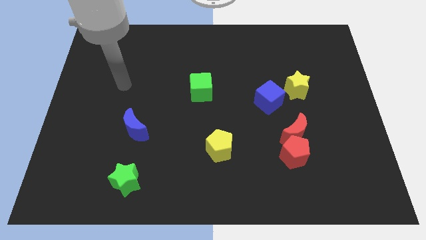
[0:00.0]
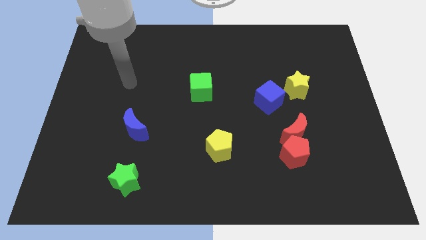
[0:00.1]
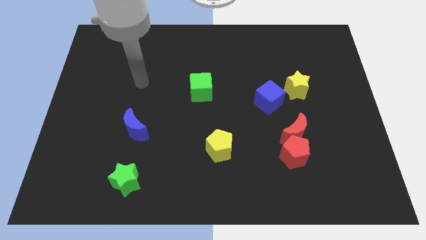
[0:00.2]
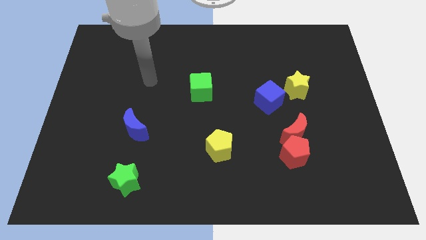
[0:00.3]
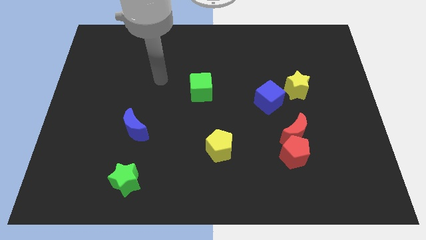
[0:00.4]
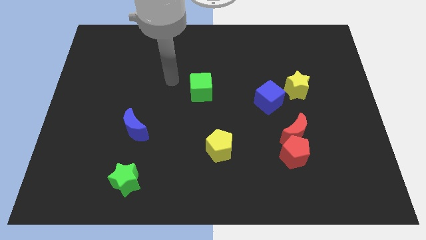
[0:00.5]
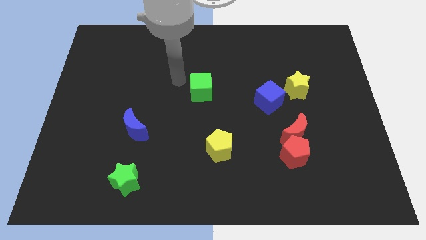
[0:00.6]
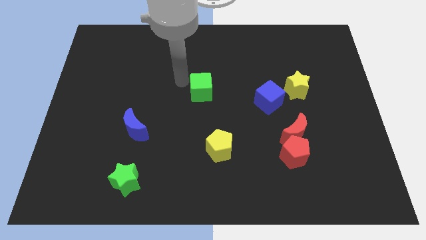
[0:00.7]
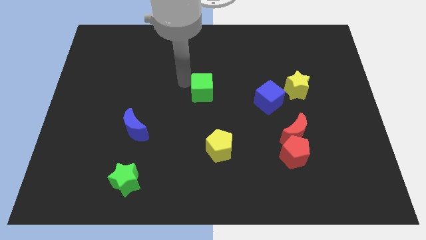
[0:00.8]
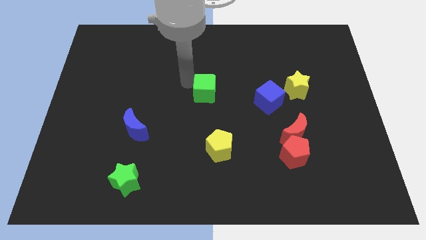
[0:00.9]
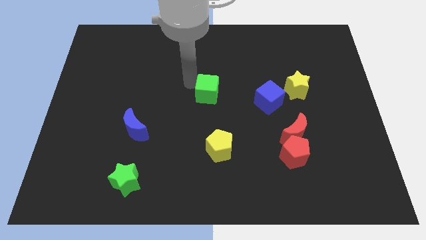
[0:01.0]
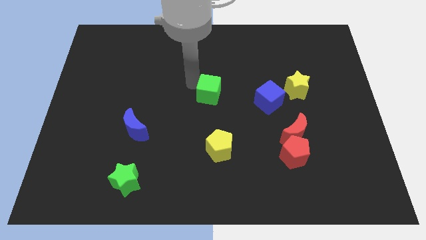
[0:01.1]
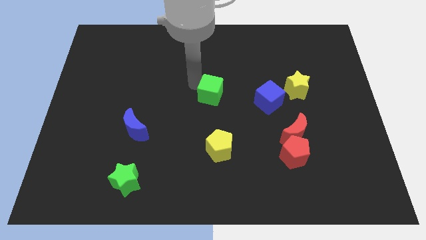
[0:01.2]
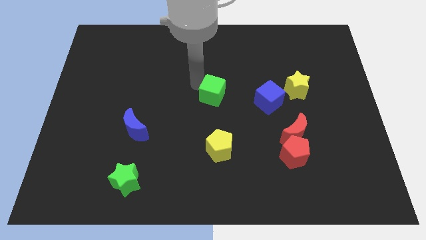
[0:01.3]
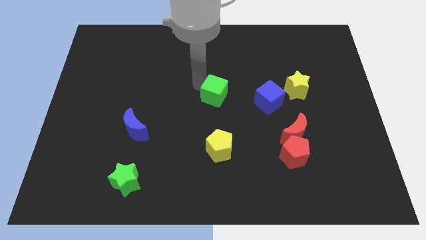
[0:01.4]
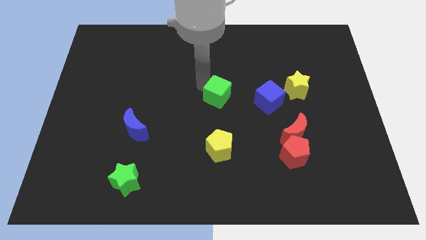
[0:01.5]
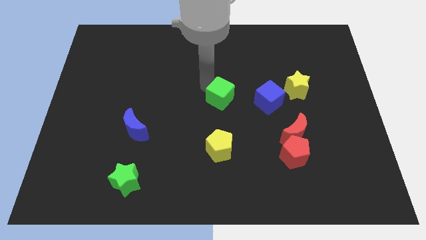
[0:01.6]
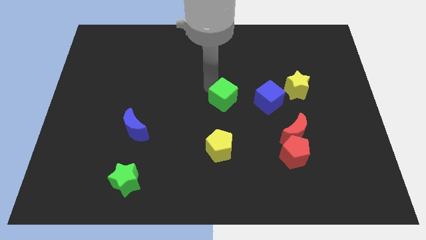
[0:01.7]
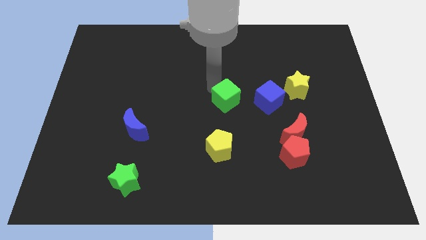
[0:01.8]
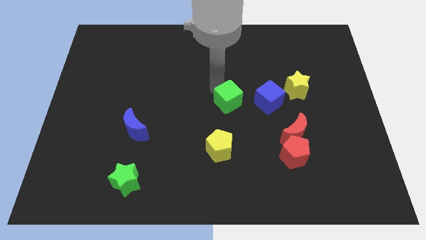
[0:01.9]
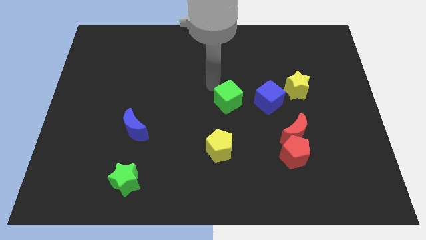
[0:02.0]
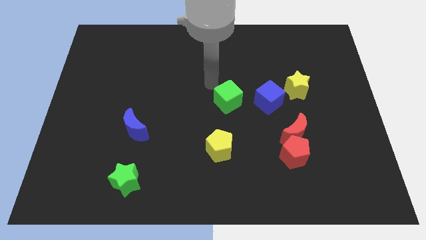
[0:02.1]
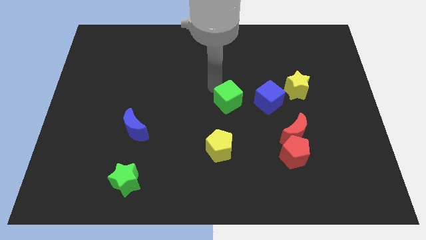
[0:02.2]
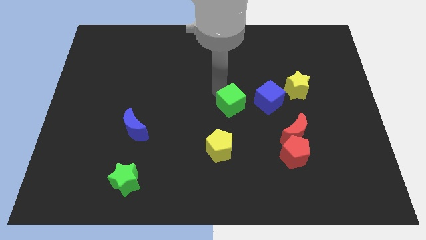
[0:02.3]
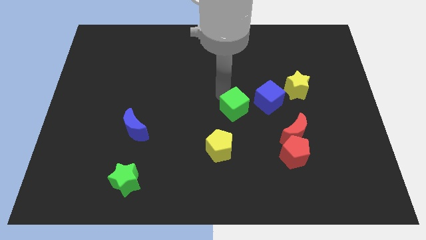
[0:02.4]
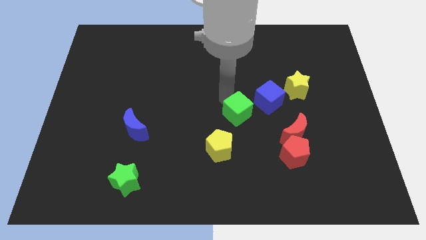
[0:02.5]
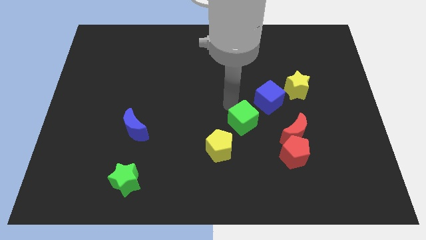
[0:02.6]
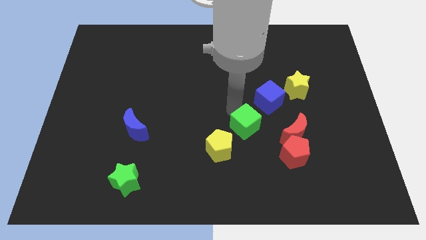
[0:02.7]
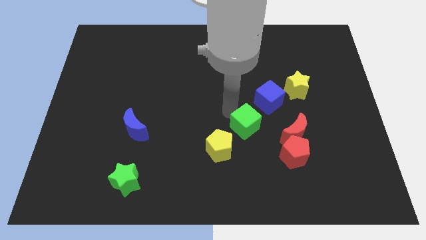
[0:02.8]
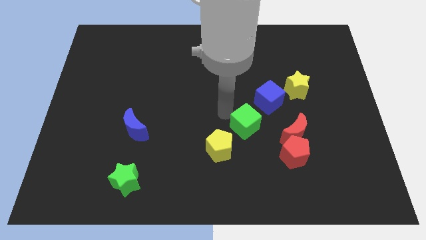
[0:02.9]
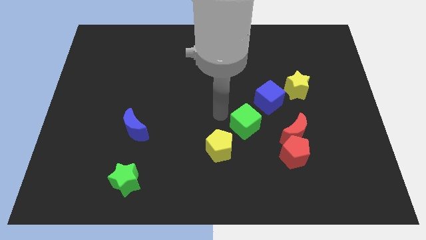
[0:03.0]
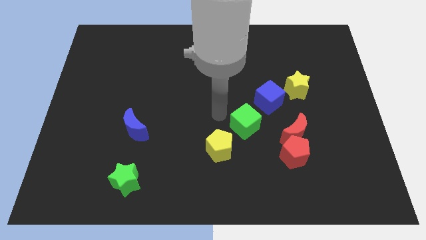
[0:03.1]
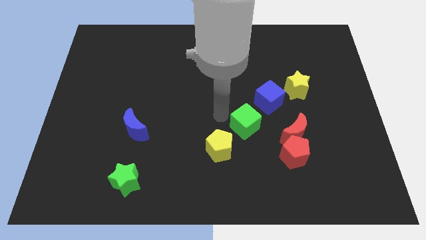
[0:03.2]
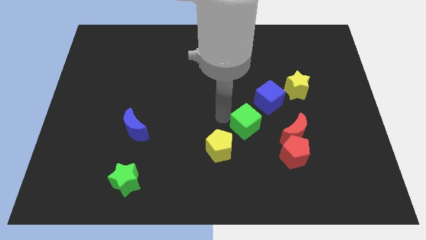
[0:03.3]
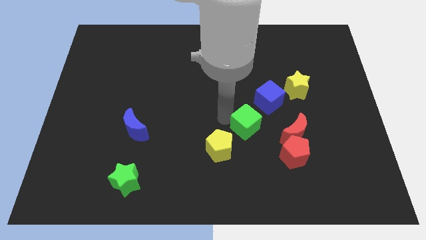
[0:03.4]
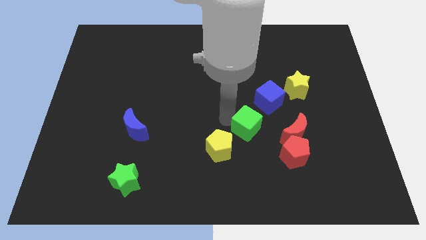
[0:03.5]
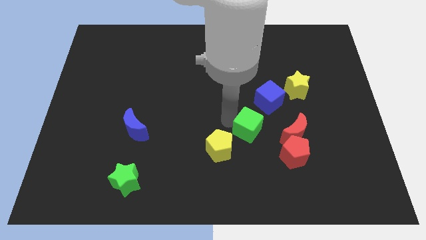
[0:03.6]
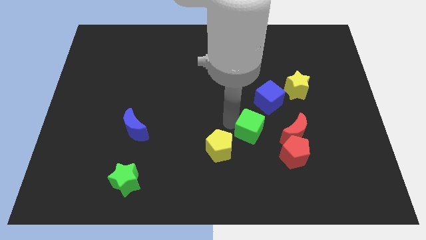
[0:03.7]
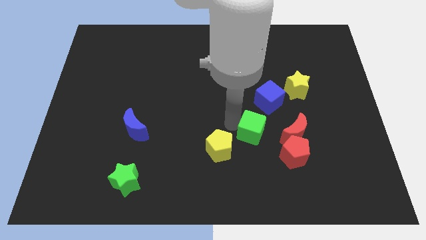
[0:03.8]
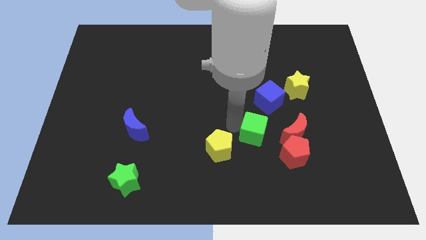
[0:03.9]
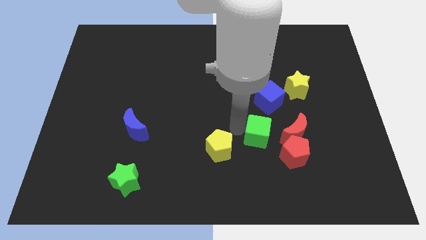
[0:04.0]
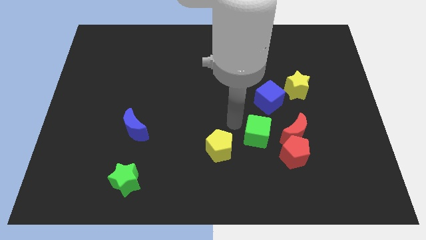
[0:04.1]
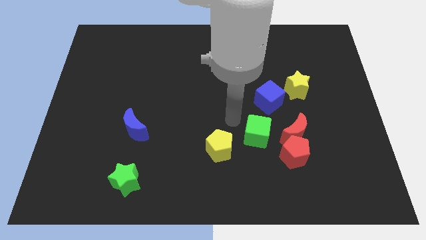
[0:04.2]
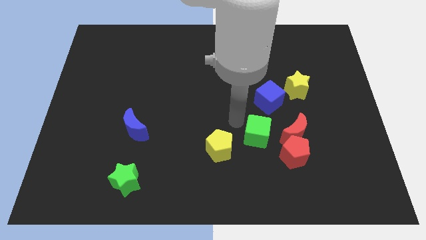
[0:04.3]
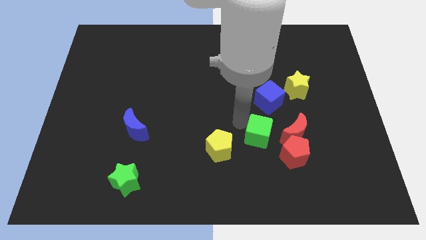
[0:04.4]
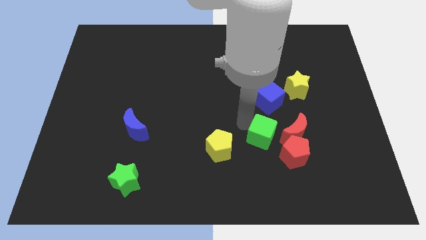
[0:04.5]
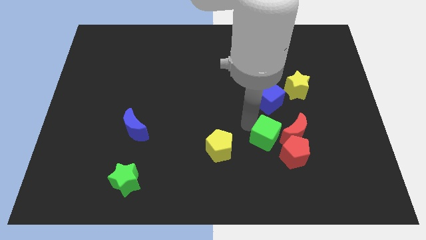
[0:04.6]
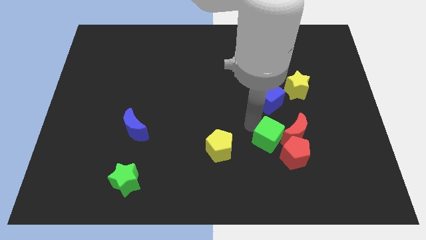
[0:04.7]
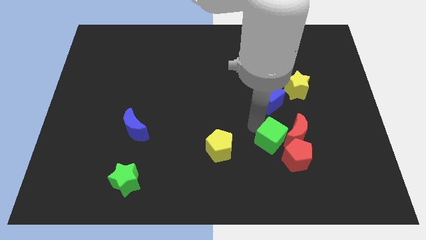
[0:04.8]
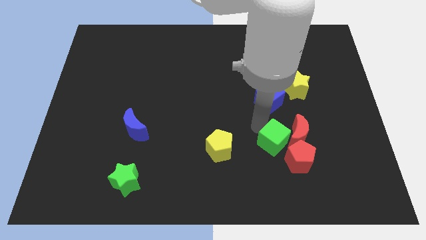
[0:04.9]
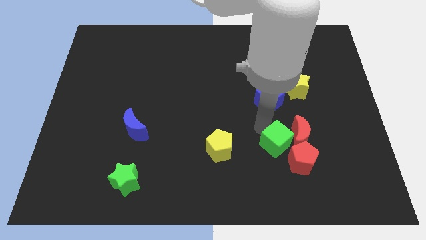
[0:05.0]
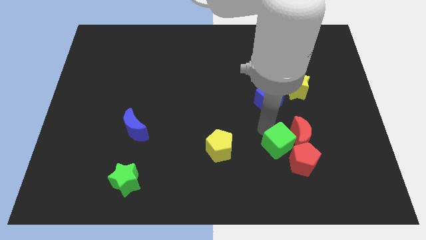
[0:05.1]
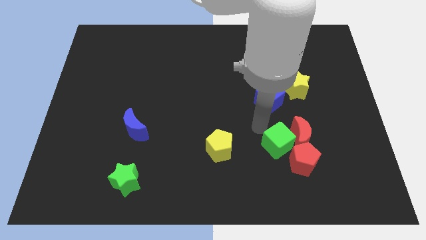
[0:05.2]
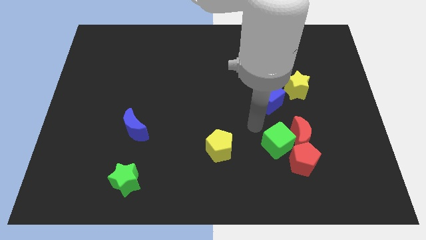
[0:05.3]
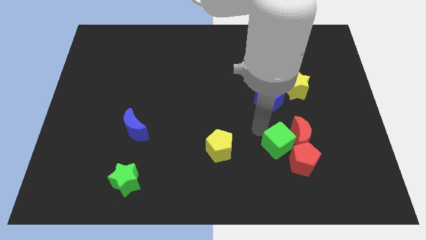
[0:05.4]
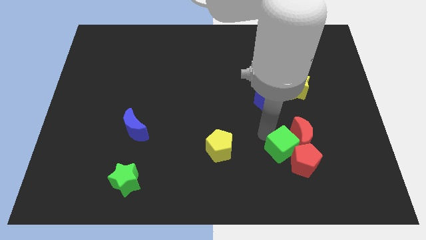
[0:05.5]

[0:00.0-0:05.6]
push the green cube close to the red pentagon

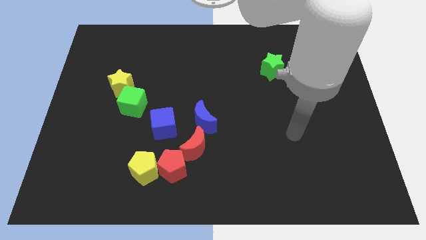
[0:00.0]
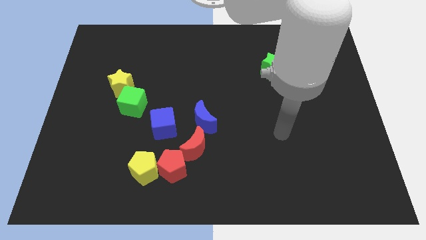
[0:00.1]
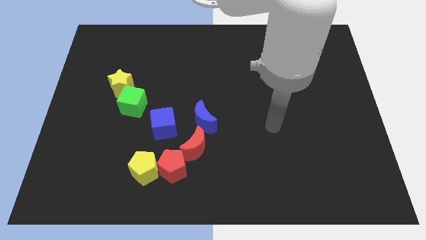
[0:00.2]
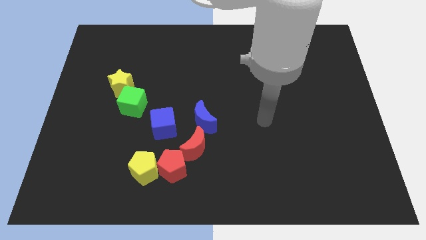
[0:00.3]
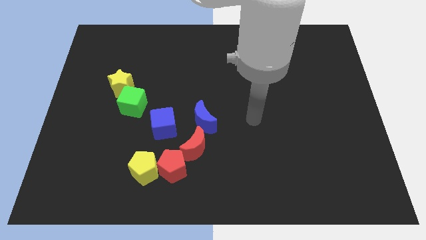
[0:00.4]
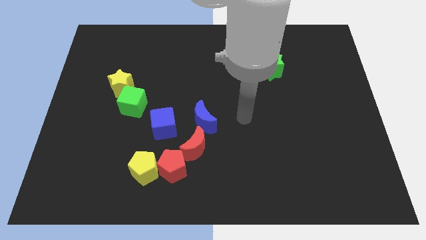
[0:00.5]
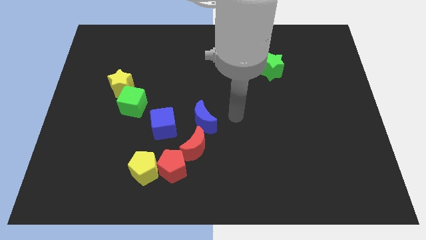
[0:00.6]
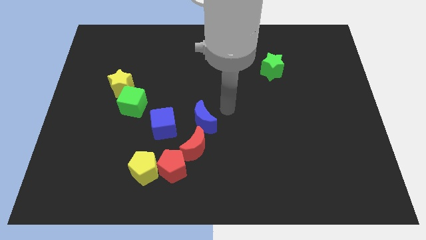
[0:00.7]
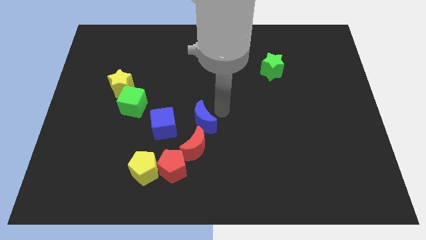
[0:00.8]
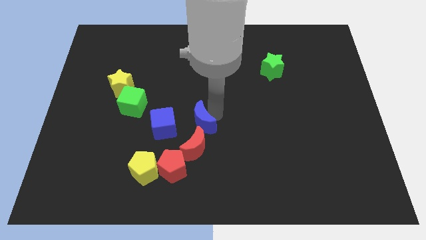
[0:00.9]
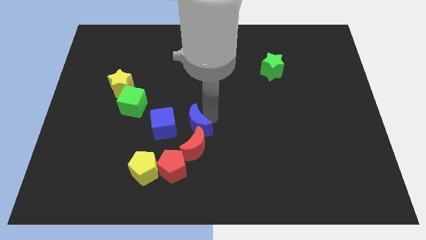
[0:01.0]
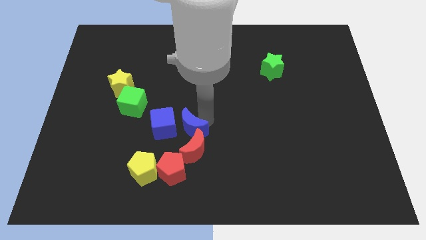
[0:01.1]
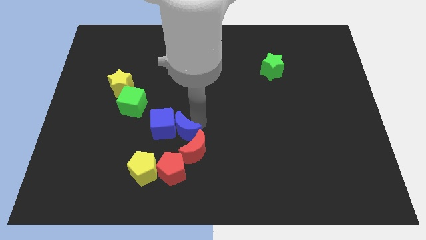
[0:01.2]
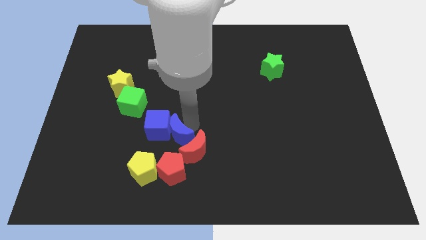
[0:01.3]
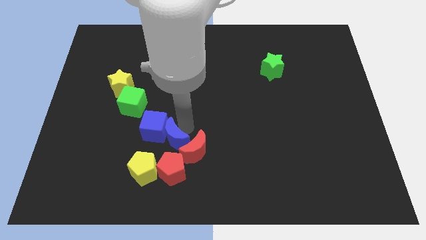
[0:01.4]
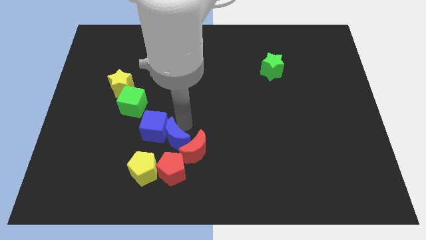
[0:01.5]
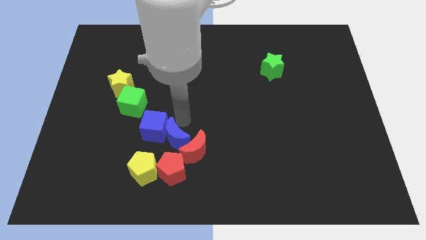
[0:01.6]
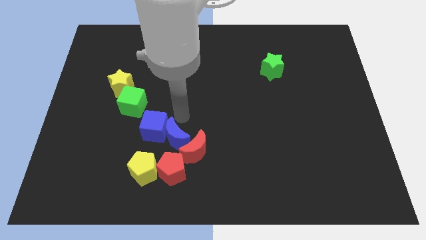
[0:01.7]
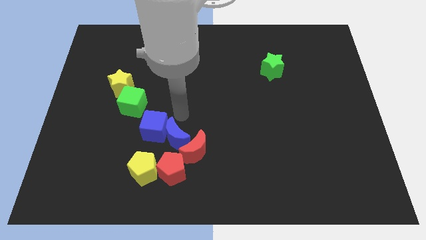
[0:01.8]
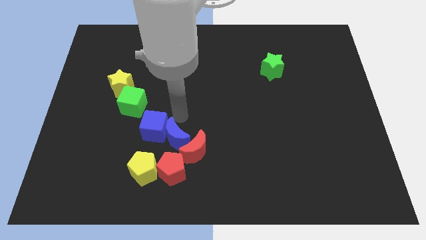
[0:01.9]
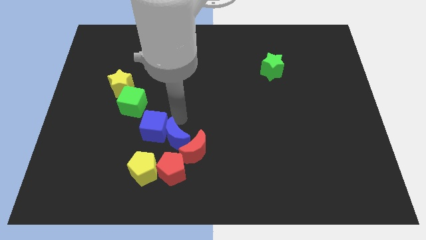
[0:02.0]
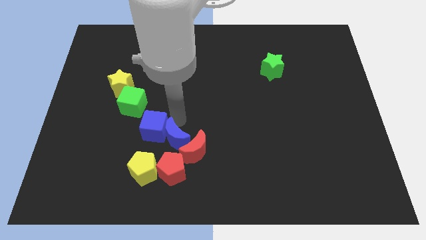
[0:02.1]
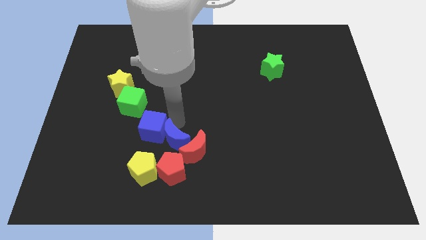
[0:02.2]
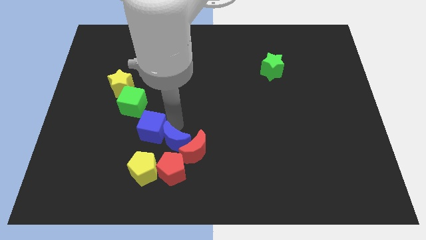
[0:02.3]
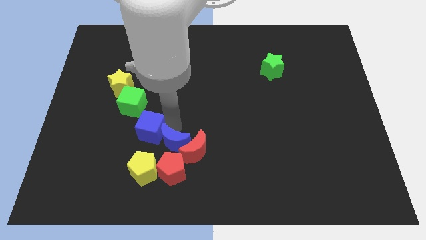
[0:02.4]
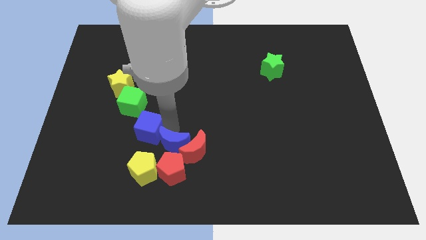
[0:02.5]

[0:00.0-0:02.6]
move the blue moon next to the red pentagon
